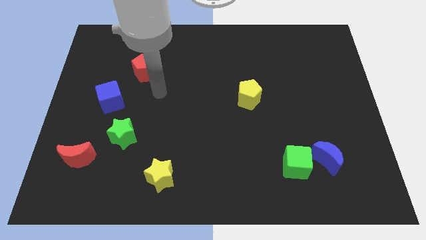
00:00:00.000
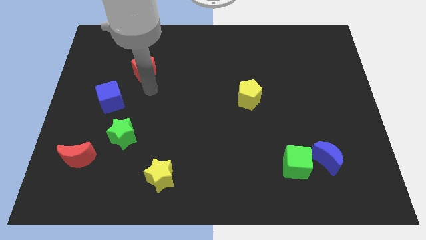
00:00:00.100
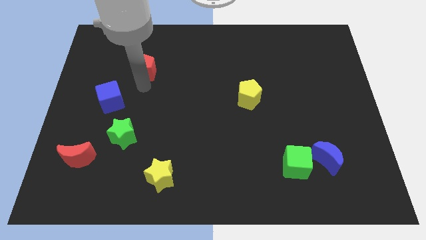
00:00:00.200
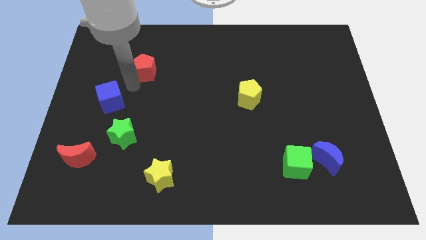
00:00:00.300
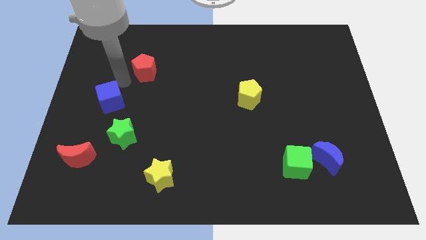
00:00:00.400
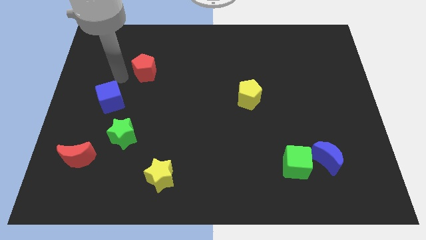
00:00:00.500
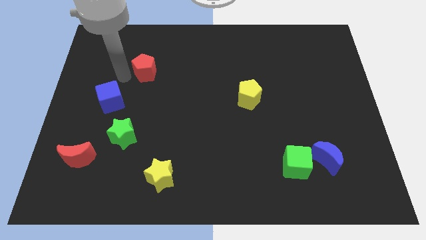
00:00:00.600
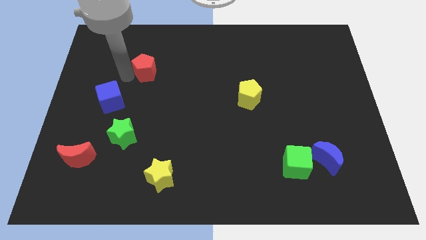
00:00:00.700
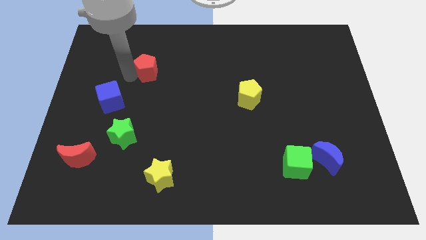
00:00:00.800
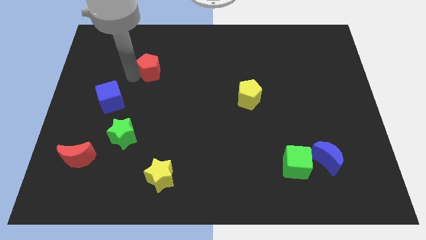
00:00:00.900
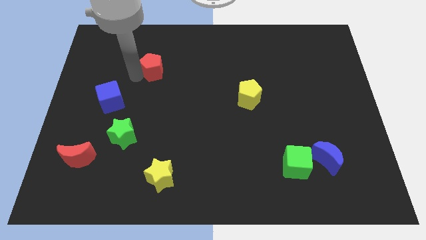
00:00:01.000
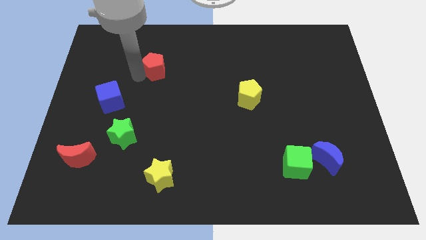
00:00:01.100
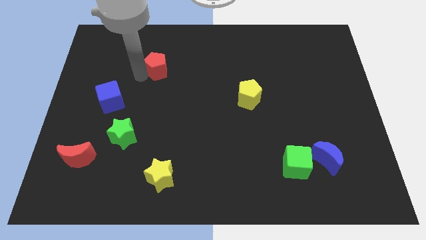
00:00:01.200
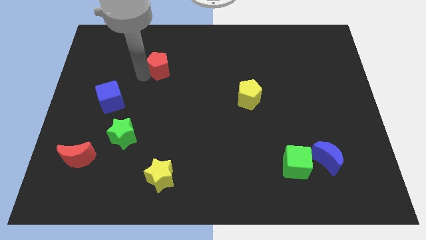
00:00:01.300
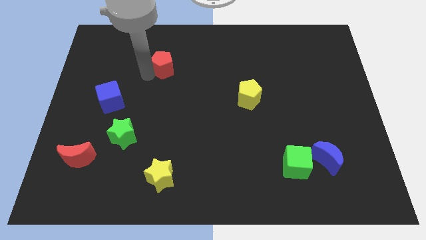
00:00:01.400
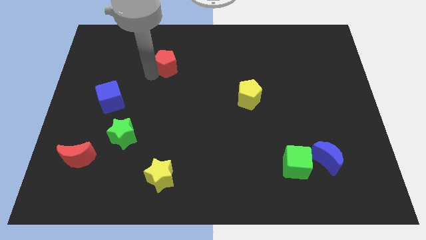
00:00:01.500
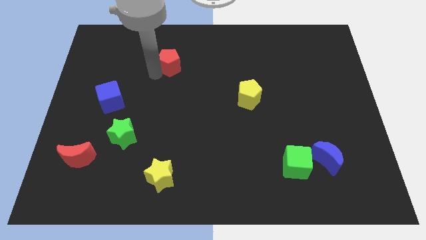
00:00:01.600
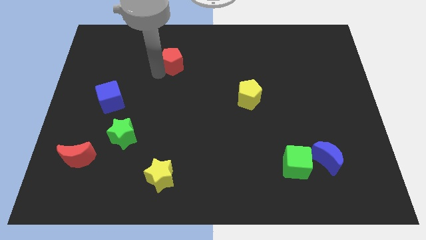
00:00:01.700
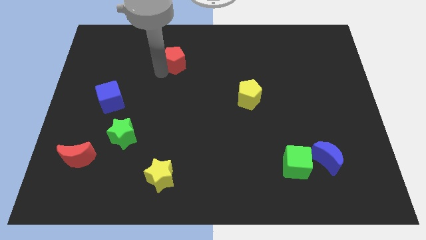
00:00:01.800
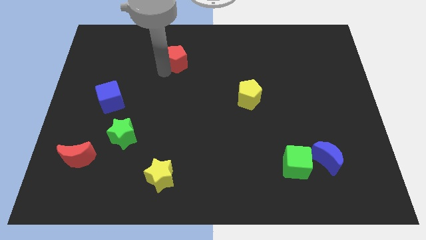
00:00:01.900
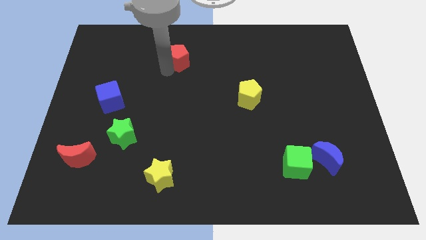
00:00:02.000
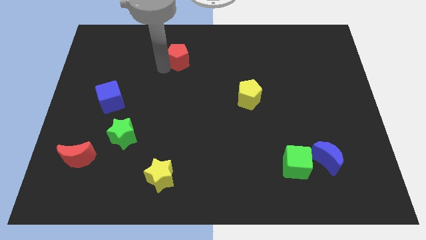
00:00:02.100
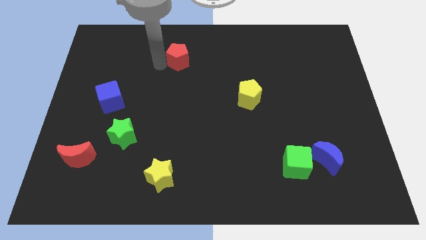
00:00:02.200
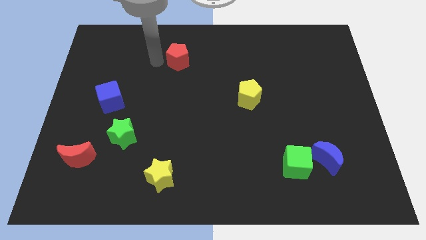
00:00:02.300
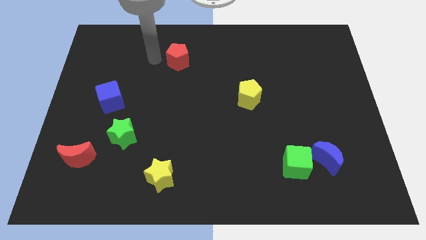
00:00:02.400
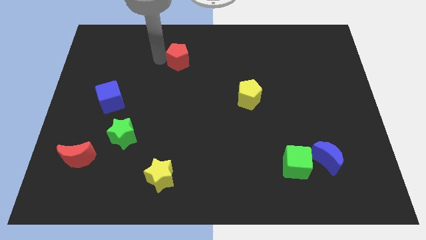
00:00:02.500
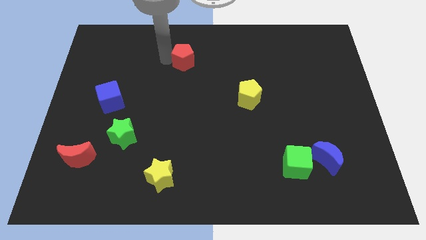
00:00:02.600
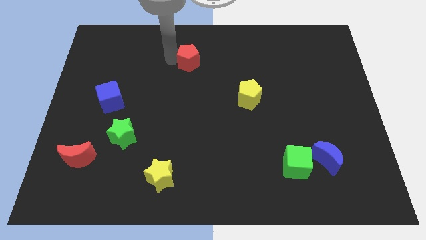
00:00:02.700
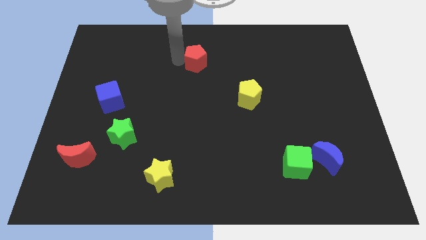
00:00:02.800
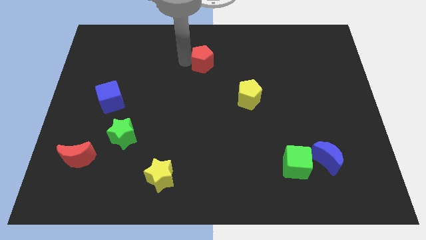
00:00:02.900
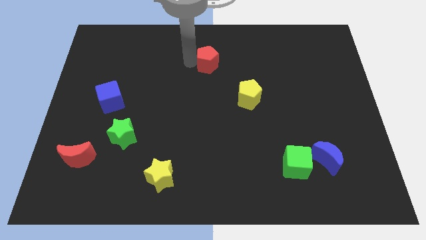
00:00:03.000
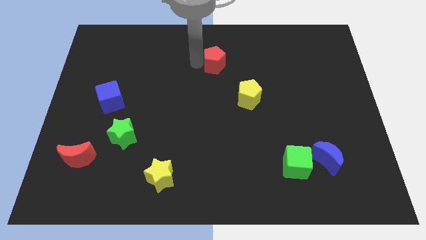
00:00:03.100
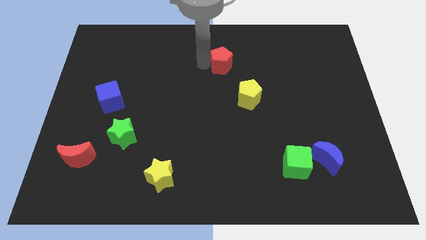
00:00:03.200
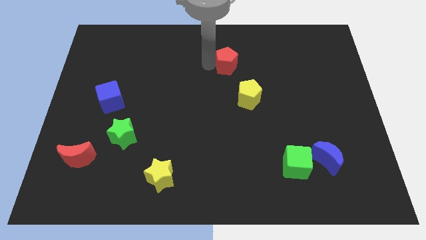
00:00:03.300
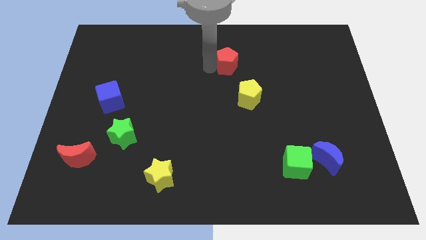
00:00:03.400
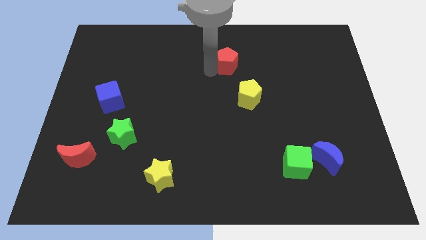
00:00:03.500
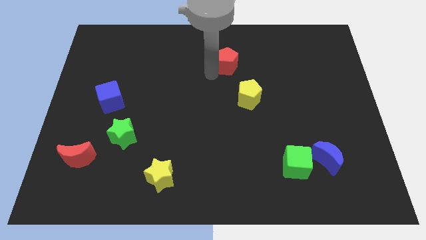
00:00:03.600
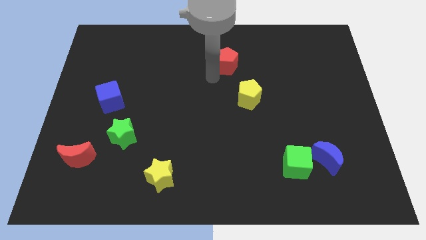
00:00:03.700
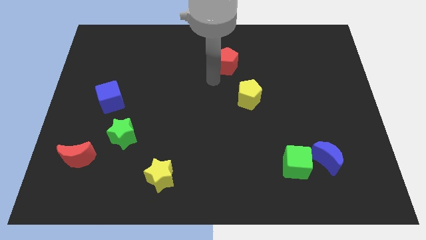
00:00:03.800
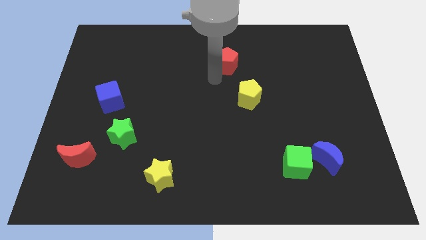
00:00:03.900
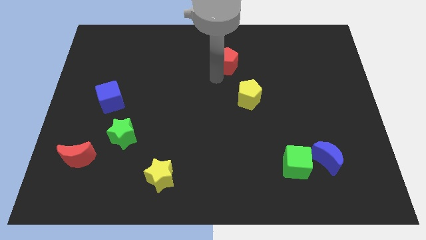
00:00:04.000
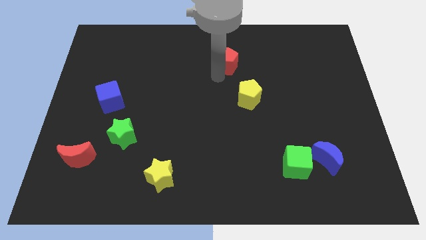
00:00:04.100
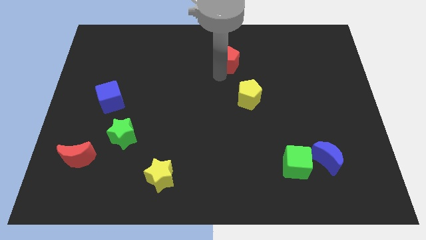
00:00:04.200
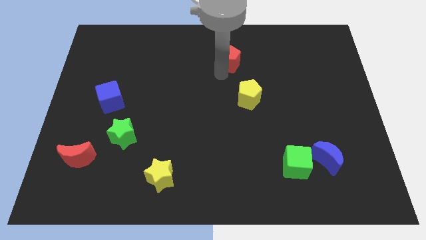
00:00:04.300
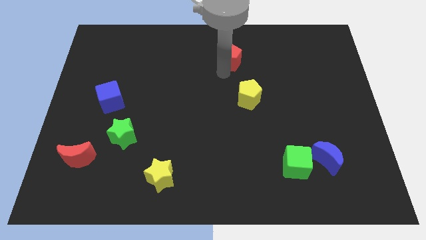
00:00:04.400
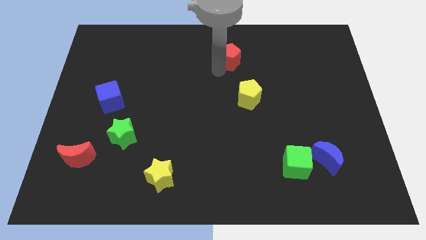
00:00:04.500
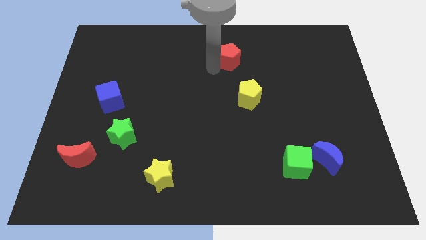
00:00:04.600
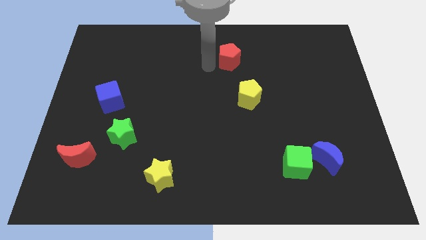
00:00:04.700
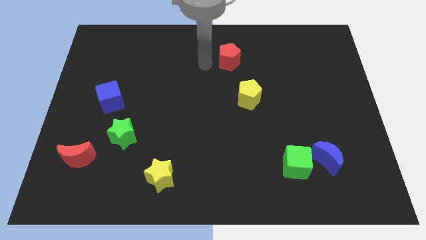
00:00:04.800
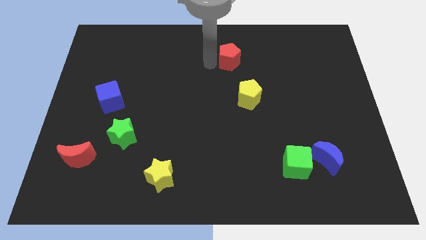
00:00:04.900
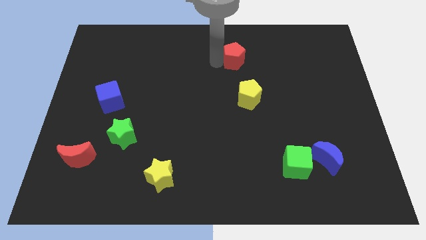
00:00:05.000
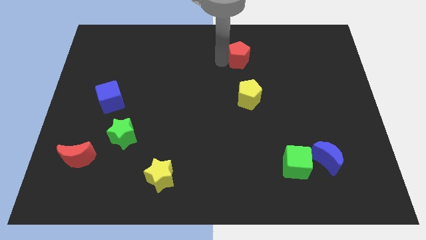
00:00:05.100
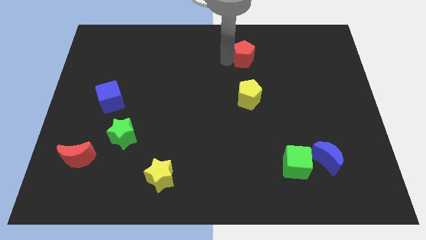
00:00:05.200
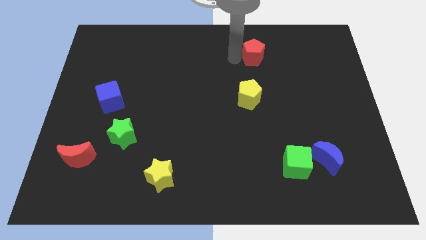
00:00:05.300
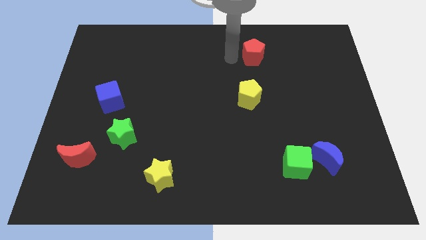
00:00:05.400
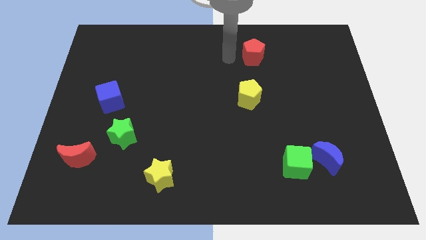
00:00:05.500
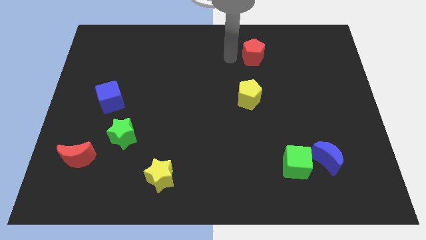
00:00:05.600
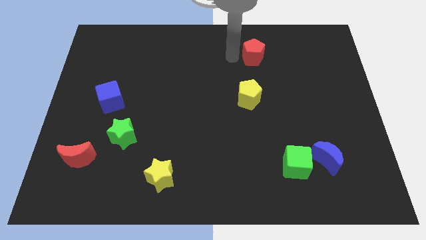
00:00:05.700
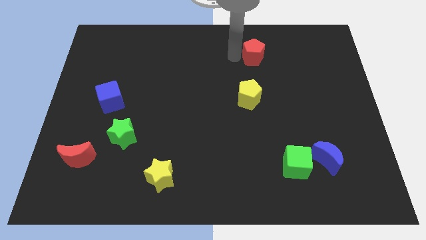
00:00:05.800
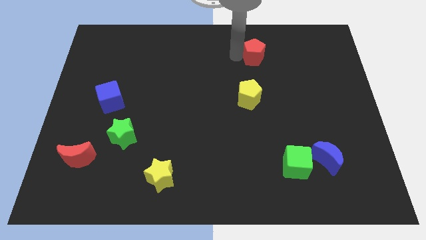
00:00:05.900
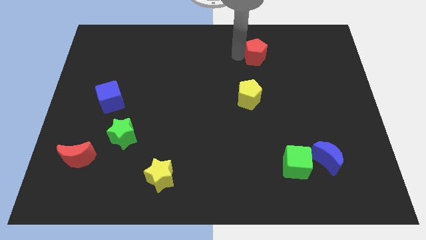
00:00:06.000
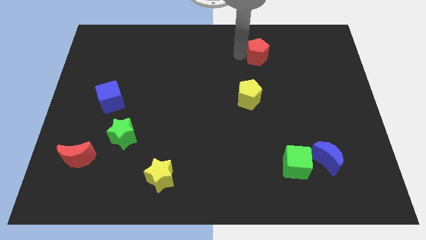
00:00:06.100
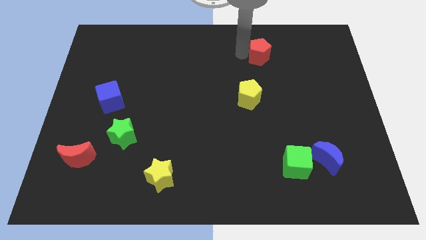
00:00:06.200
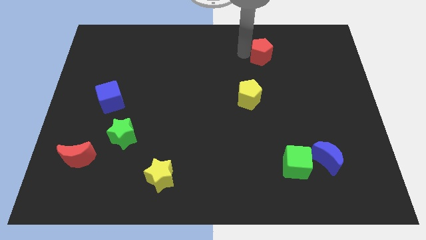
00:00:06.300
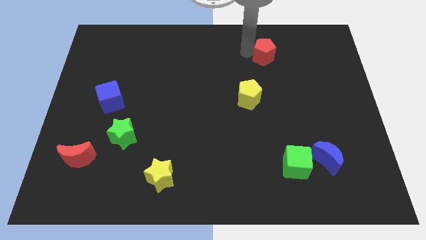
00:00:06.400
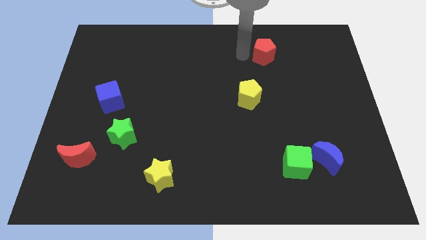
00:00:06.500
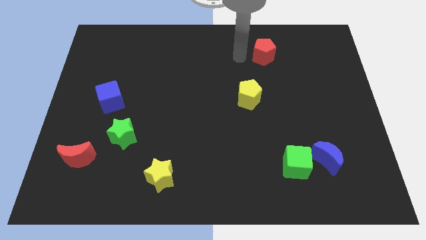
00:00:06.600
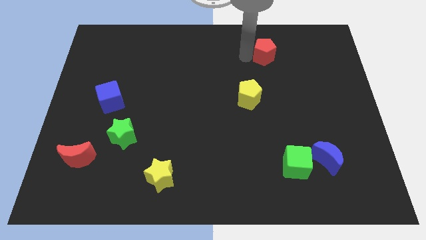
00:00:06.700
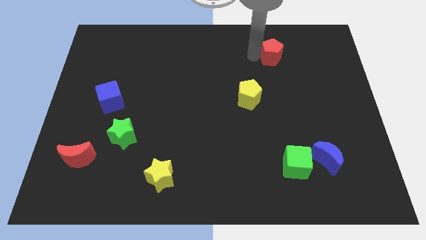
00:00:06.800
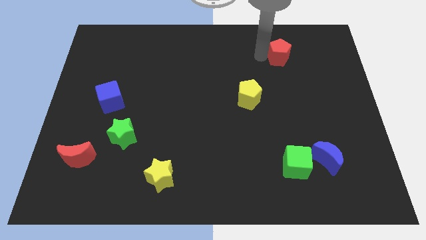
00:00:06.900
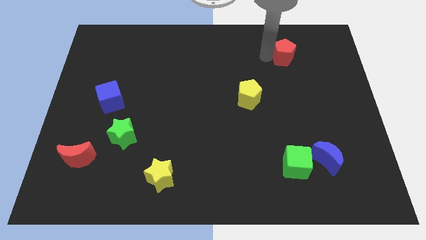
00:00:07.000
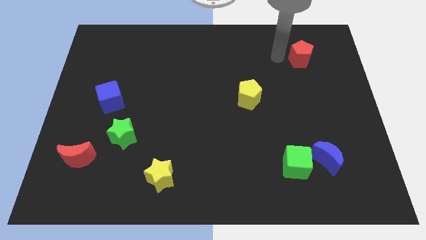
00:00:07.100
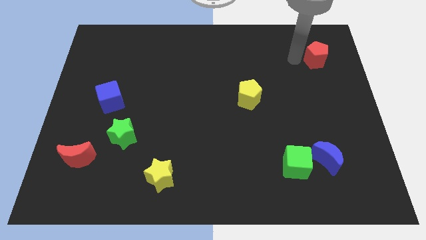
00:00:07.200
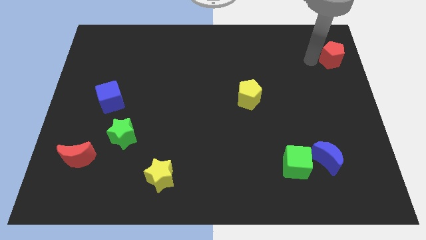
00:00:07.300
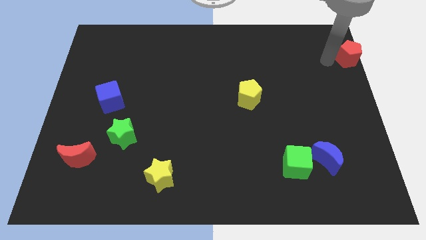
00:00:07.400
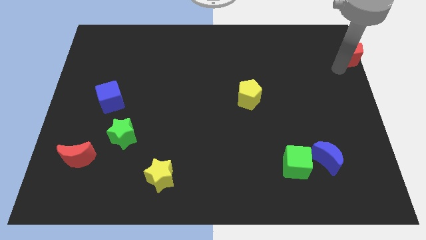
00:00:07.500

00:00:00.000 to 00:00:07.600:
slide the red pentagon to the top right corner

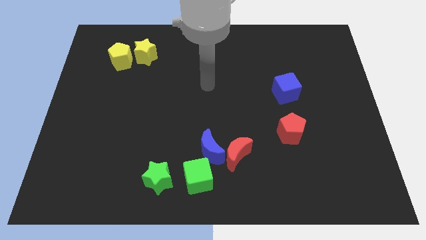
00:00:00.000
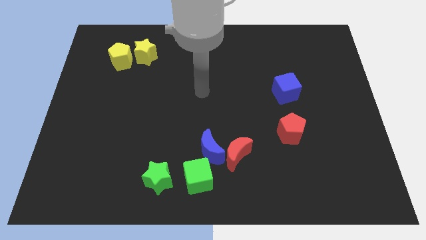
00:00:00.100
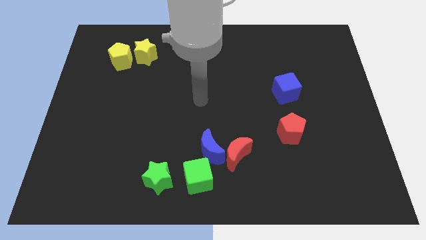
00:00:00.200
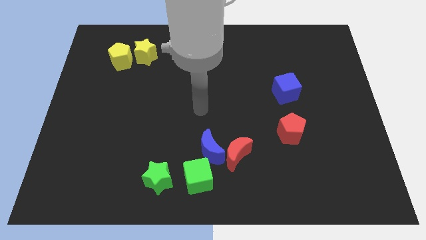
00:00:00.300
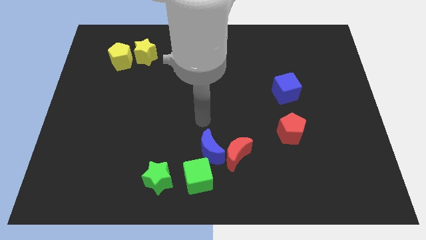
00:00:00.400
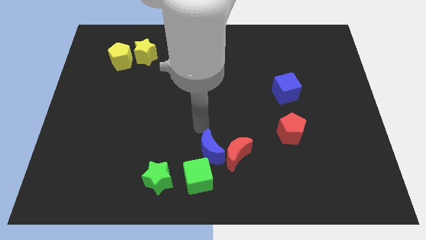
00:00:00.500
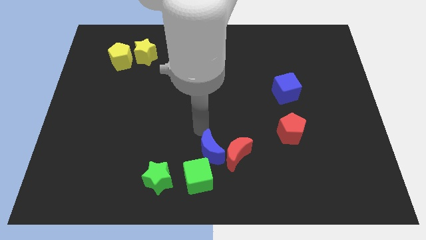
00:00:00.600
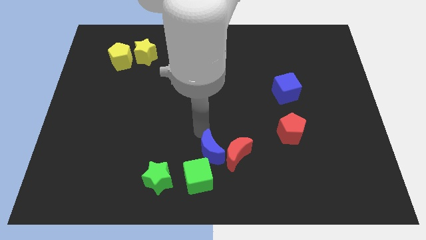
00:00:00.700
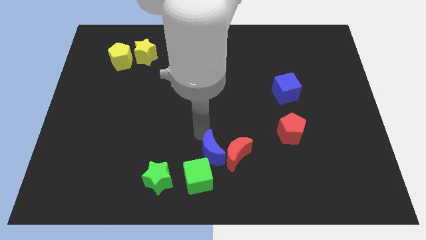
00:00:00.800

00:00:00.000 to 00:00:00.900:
move the blue moon to the bottom
